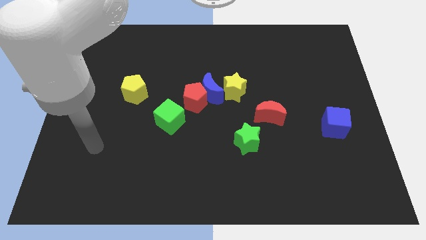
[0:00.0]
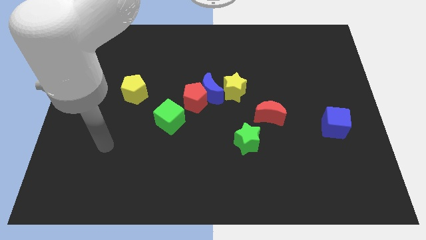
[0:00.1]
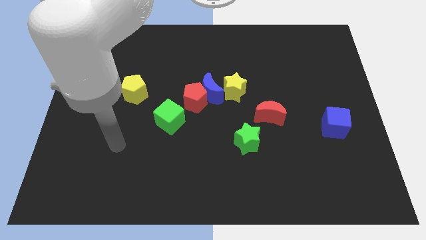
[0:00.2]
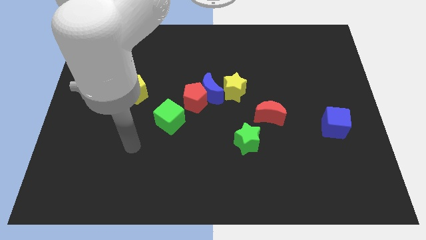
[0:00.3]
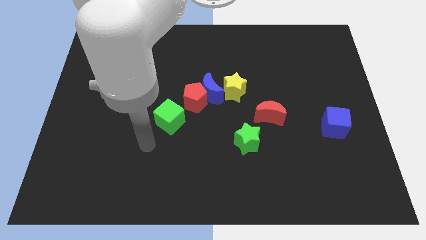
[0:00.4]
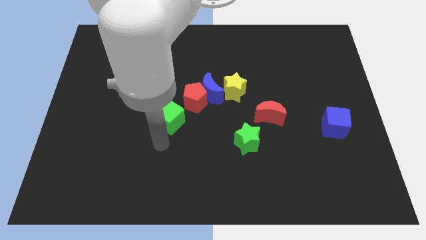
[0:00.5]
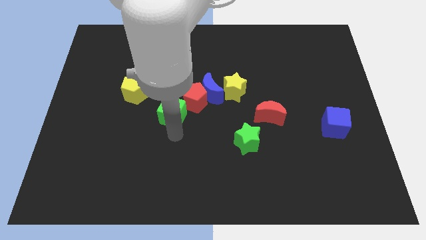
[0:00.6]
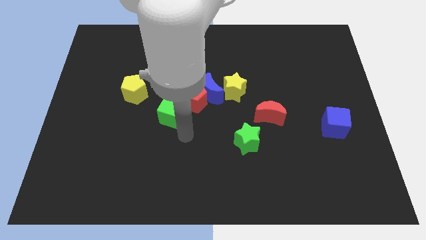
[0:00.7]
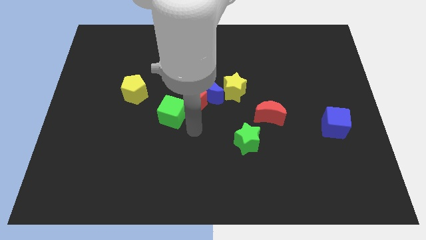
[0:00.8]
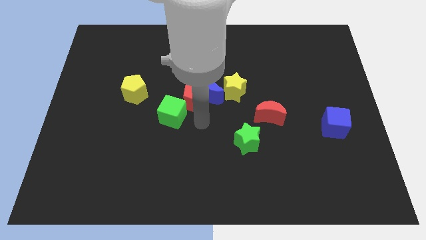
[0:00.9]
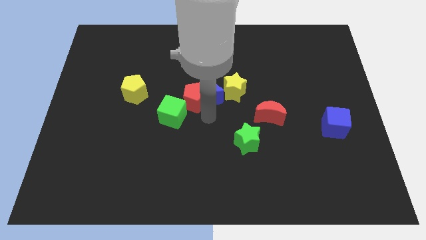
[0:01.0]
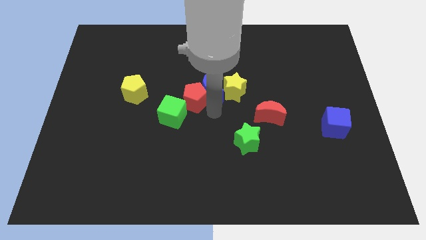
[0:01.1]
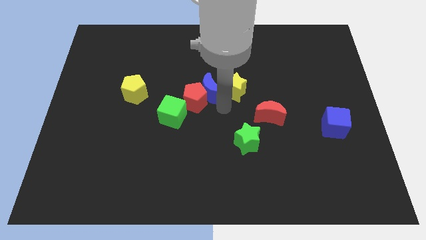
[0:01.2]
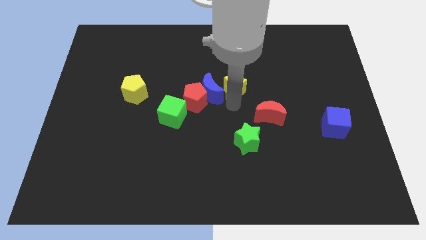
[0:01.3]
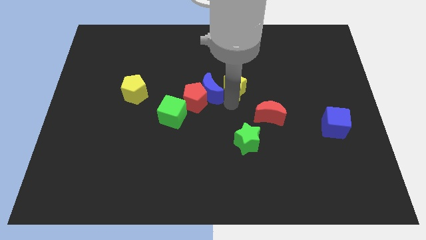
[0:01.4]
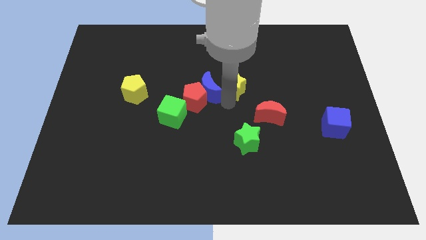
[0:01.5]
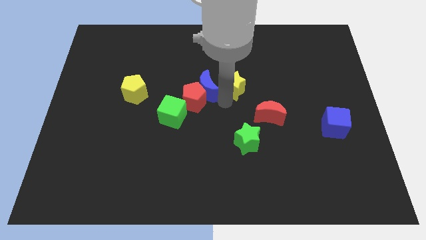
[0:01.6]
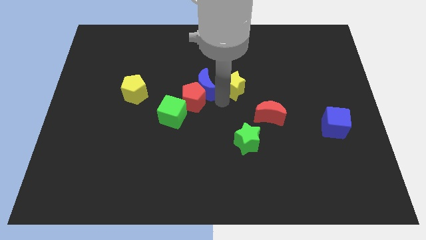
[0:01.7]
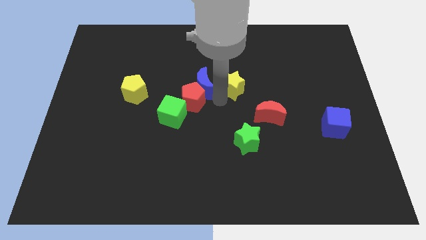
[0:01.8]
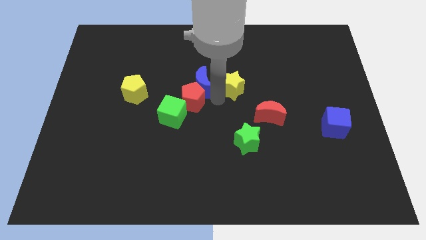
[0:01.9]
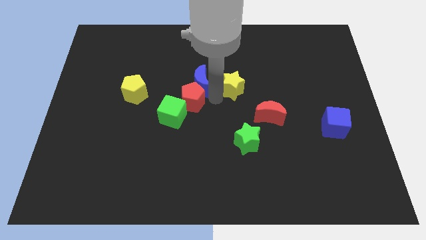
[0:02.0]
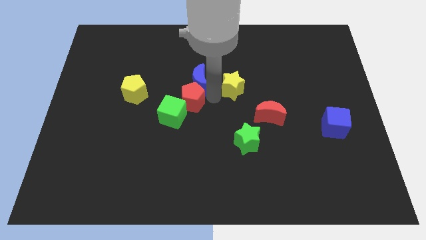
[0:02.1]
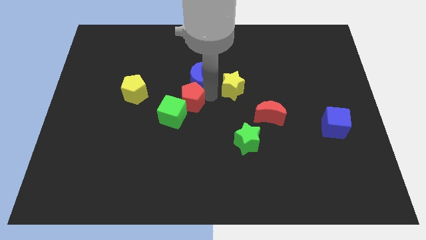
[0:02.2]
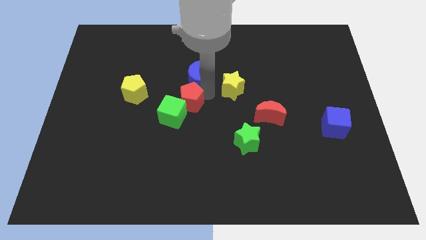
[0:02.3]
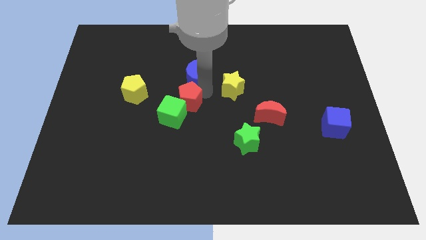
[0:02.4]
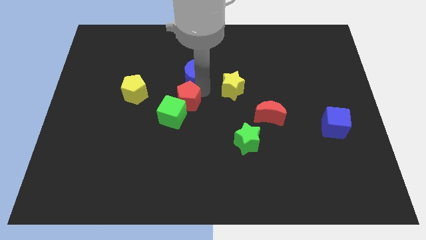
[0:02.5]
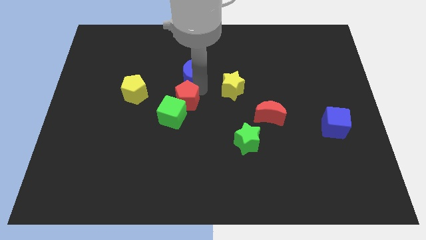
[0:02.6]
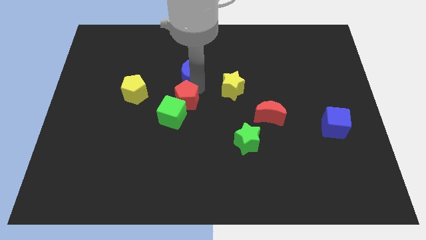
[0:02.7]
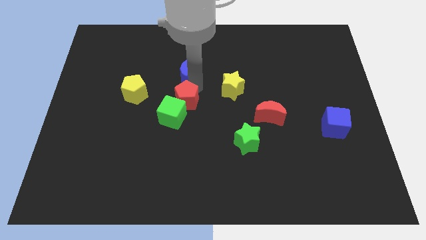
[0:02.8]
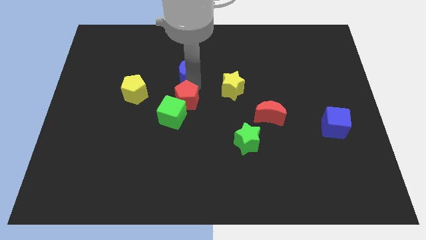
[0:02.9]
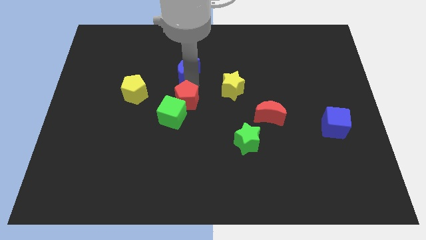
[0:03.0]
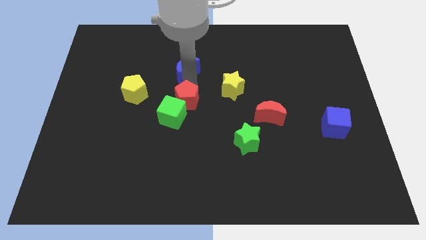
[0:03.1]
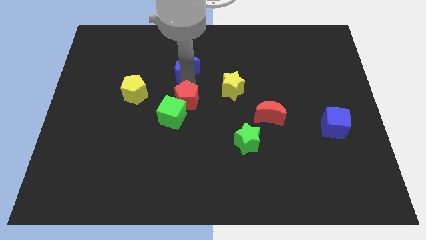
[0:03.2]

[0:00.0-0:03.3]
move the blue moon away from the red pentagon and yellow star

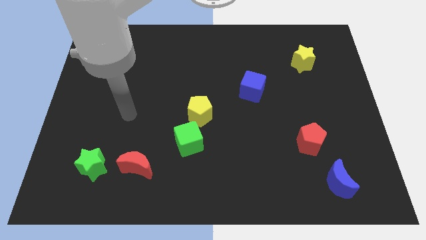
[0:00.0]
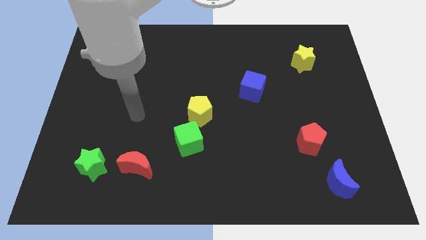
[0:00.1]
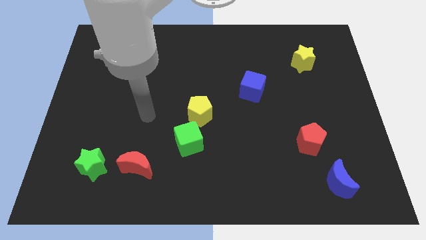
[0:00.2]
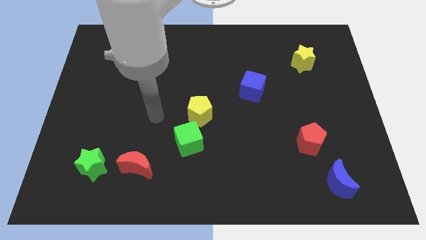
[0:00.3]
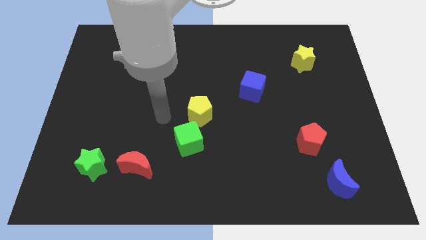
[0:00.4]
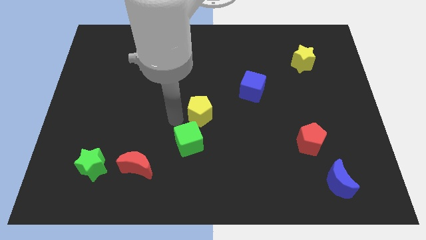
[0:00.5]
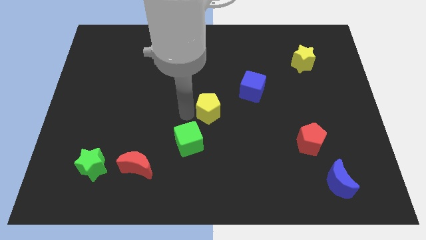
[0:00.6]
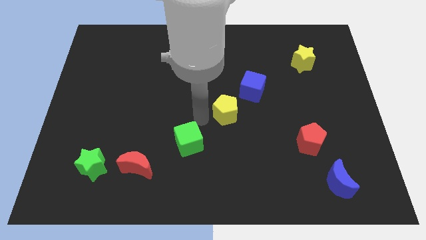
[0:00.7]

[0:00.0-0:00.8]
pull the green cube apart from the yellow pentagon

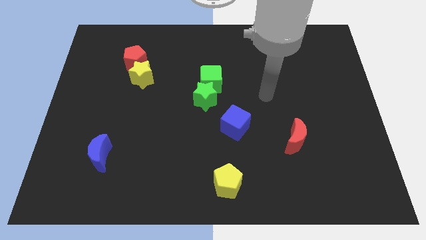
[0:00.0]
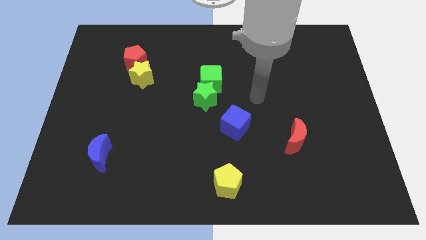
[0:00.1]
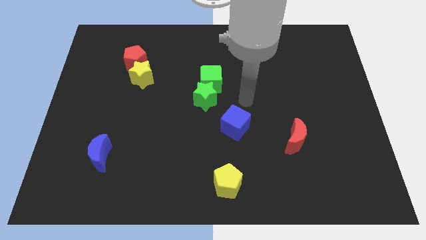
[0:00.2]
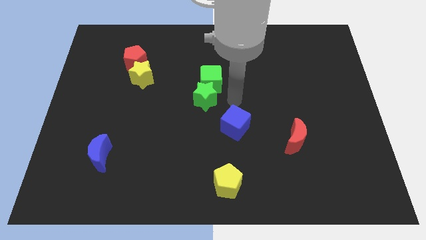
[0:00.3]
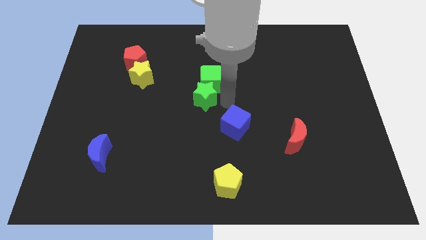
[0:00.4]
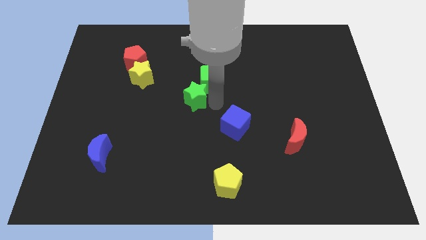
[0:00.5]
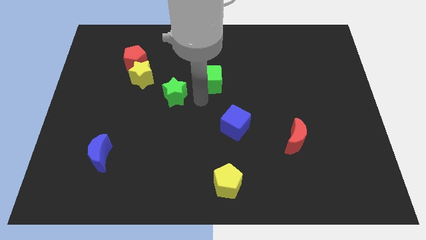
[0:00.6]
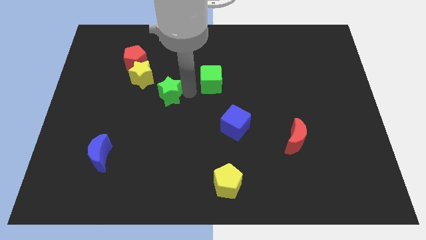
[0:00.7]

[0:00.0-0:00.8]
separate the green cube from the green star

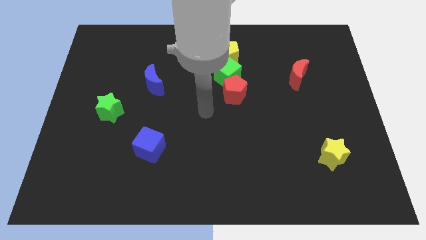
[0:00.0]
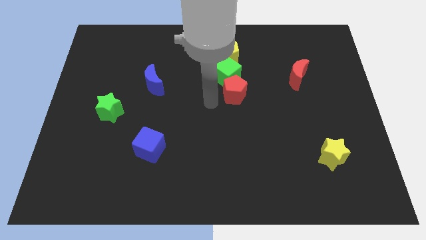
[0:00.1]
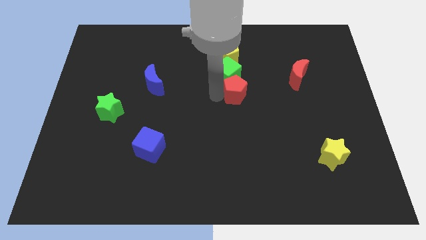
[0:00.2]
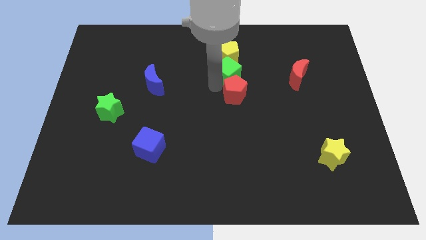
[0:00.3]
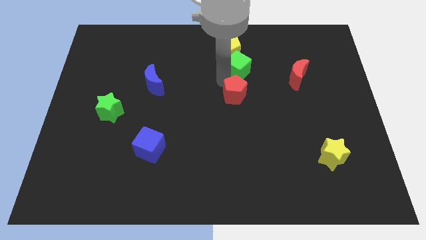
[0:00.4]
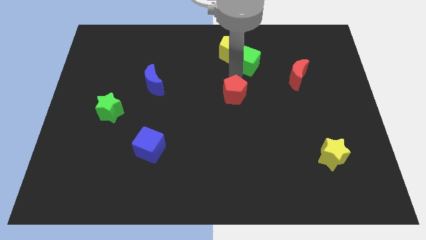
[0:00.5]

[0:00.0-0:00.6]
separate the red pentagon from the green cube

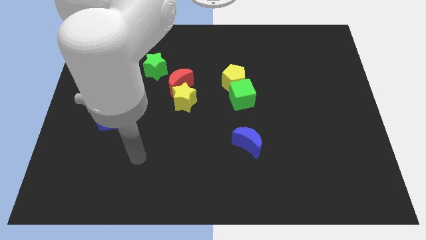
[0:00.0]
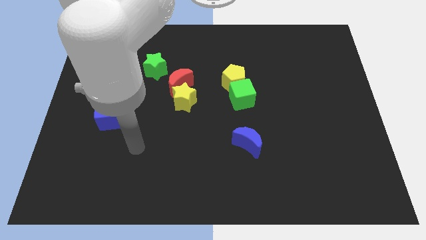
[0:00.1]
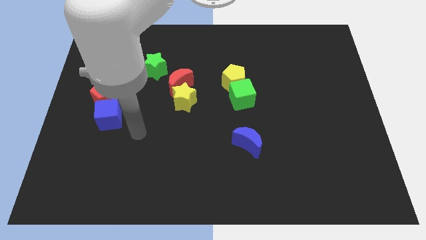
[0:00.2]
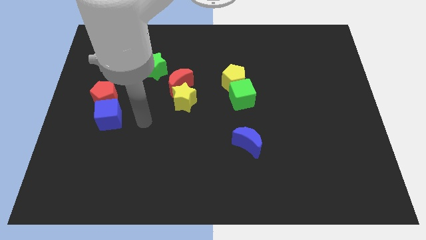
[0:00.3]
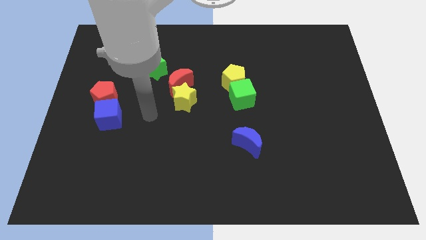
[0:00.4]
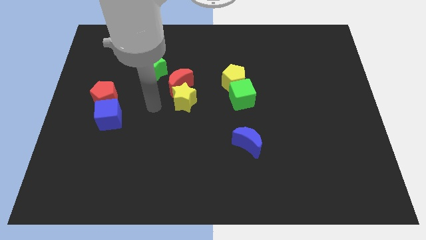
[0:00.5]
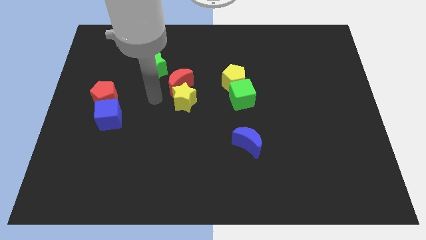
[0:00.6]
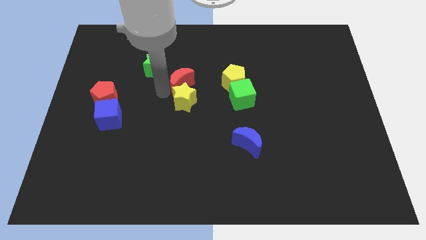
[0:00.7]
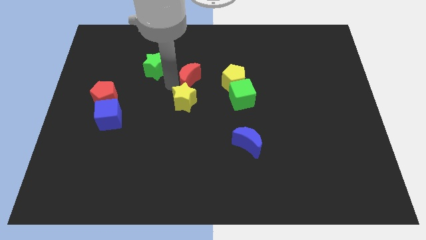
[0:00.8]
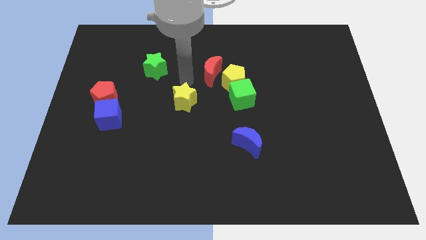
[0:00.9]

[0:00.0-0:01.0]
separate the yellow star from the red moon

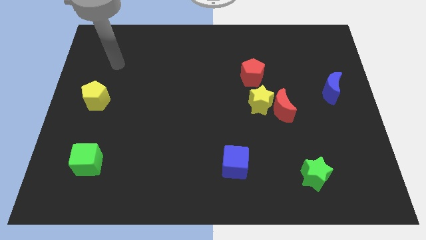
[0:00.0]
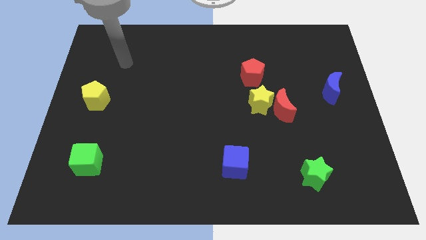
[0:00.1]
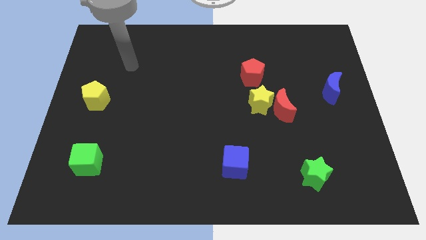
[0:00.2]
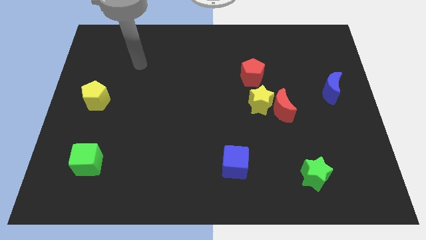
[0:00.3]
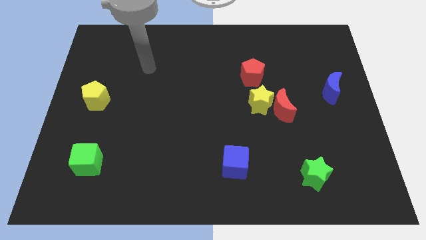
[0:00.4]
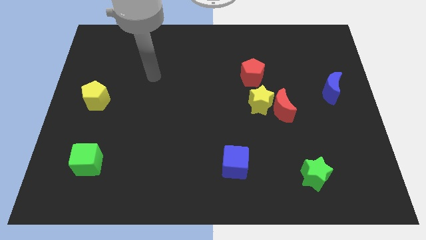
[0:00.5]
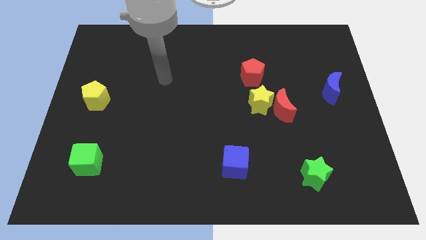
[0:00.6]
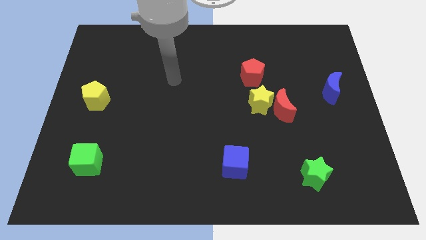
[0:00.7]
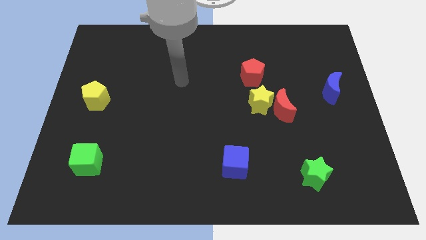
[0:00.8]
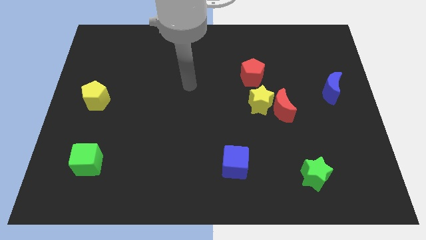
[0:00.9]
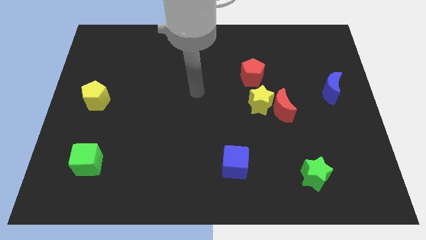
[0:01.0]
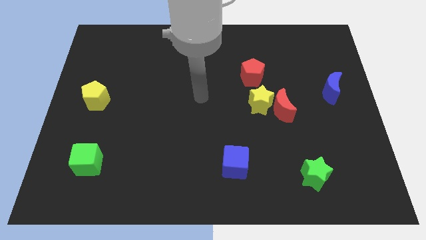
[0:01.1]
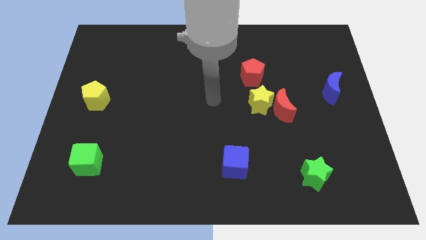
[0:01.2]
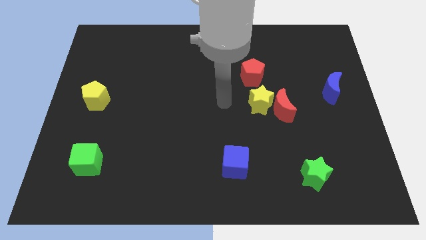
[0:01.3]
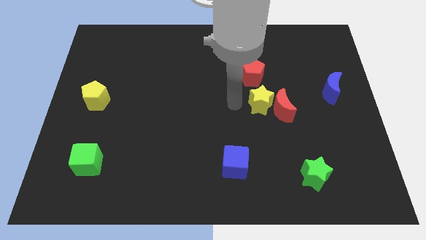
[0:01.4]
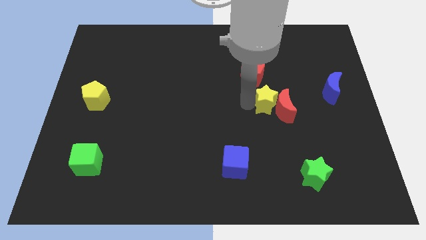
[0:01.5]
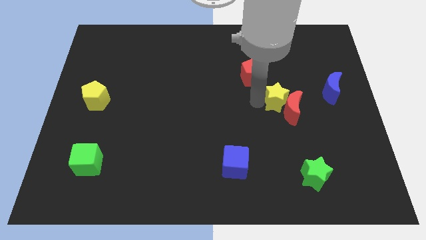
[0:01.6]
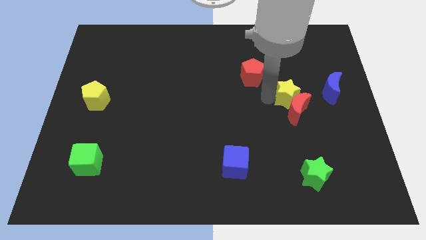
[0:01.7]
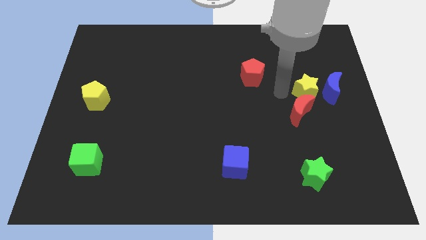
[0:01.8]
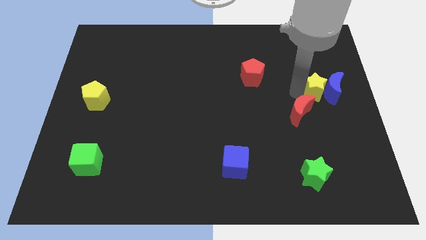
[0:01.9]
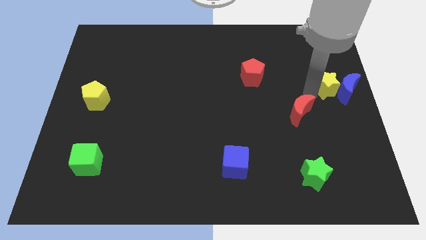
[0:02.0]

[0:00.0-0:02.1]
separate the red moon from the yellow star

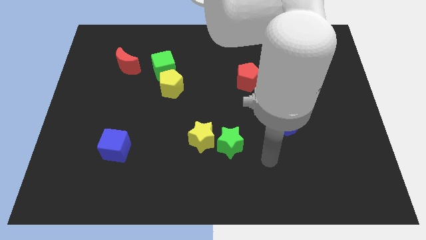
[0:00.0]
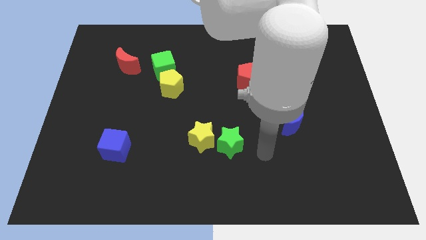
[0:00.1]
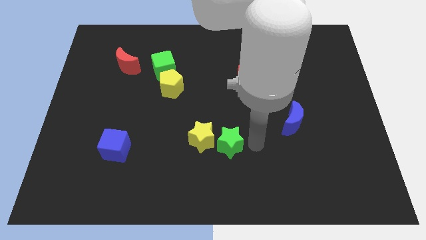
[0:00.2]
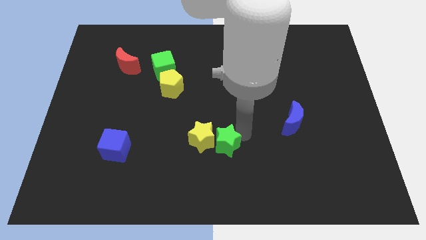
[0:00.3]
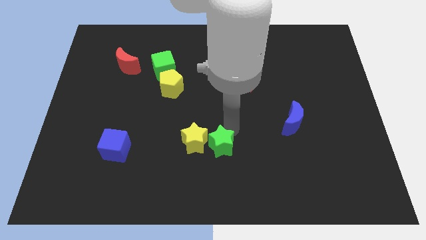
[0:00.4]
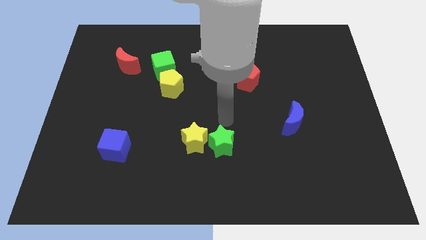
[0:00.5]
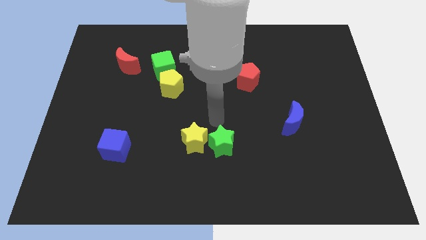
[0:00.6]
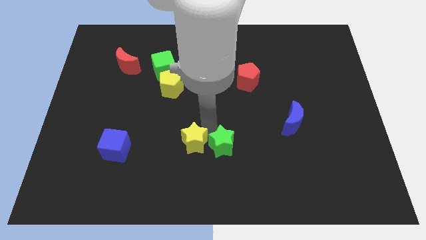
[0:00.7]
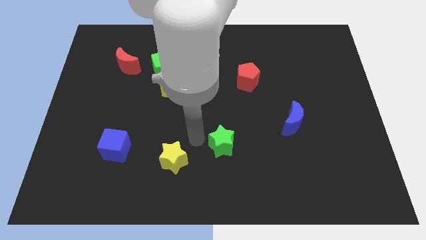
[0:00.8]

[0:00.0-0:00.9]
pull the green star apart from the yellow star
